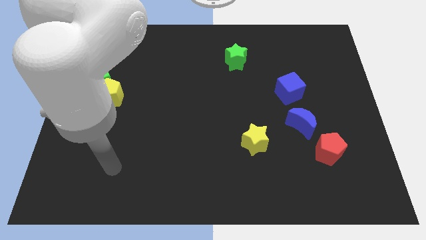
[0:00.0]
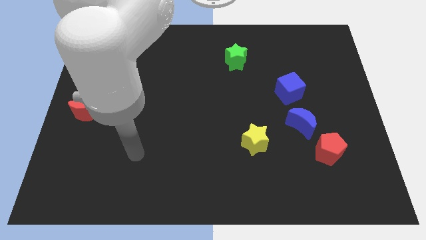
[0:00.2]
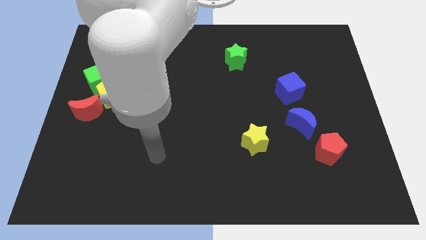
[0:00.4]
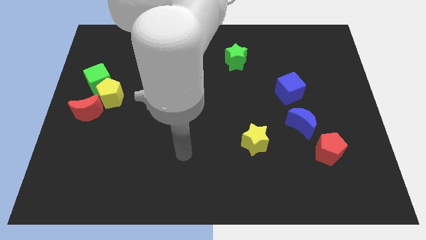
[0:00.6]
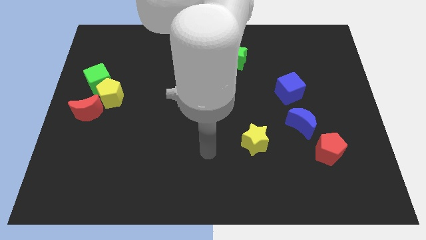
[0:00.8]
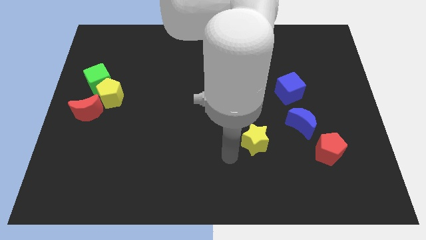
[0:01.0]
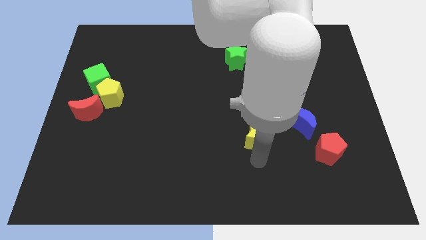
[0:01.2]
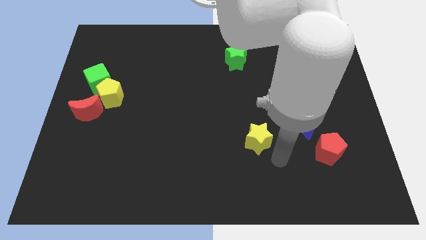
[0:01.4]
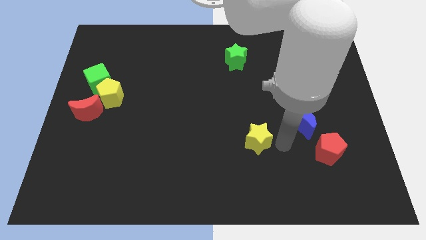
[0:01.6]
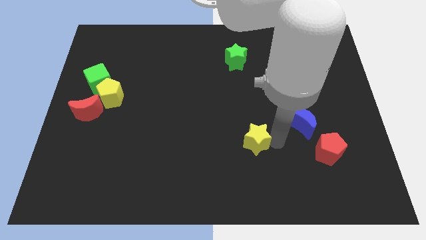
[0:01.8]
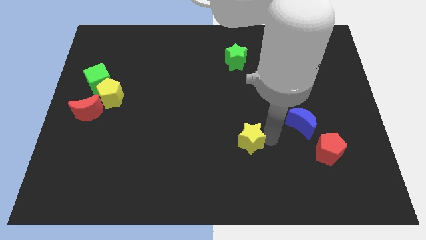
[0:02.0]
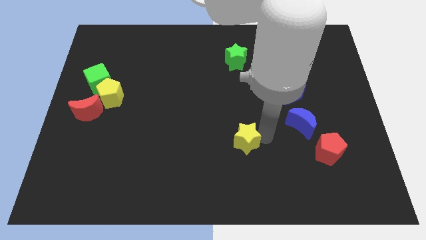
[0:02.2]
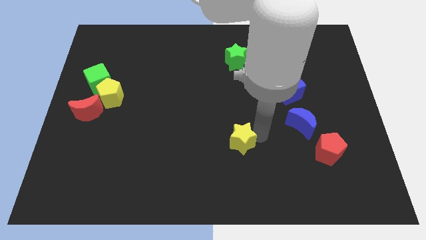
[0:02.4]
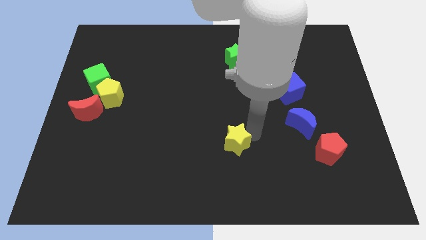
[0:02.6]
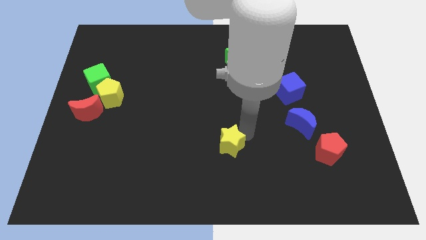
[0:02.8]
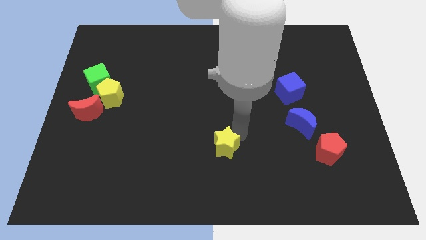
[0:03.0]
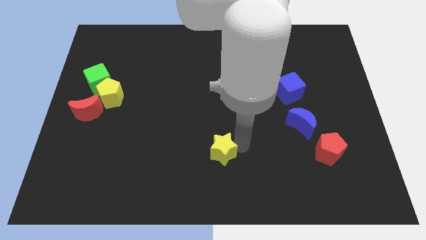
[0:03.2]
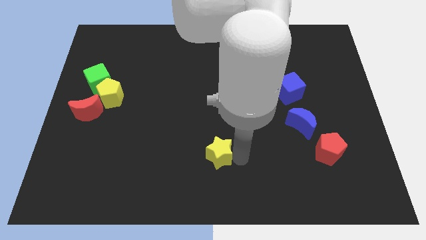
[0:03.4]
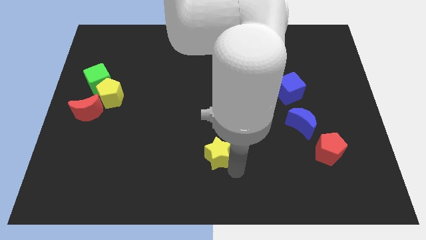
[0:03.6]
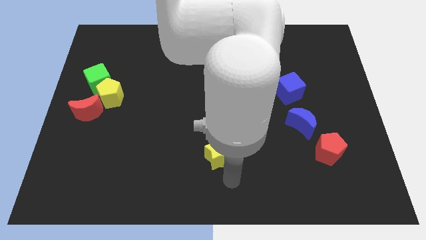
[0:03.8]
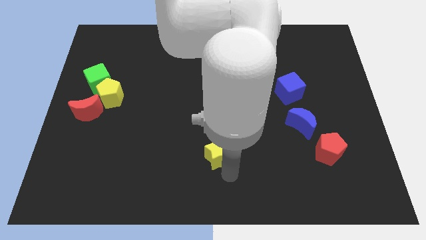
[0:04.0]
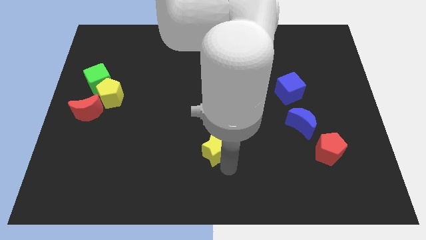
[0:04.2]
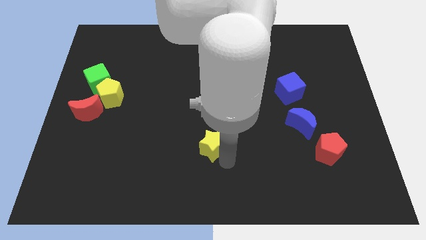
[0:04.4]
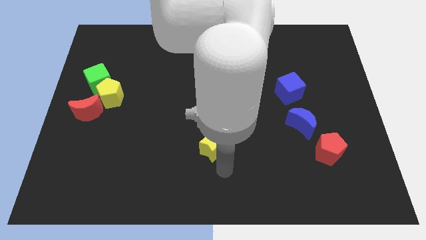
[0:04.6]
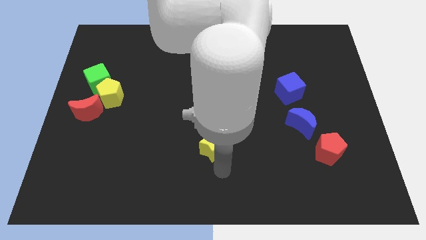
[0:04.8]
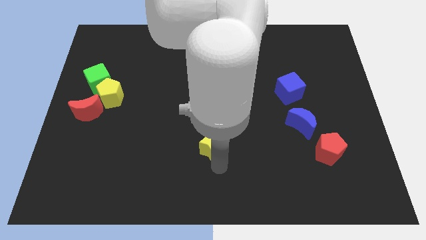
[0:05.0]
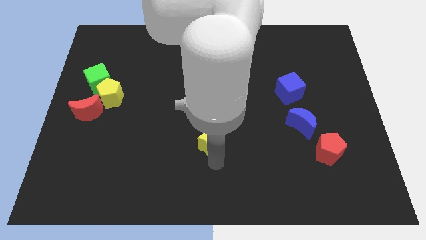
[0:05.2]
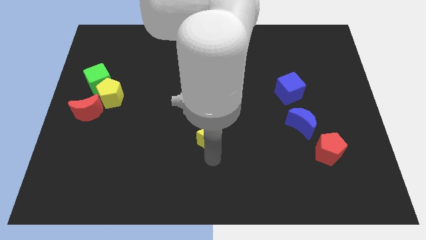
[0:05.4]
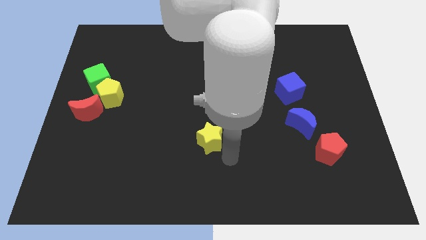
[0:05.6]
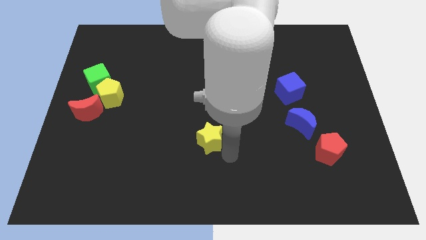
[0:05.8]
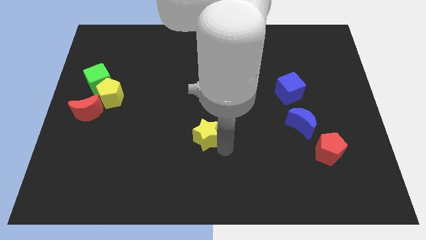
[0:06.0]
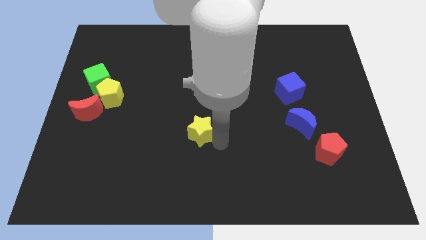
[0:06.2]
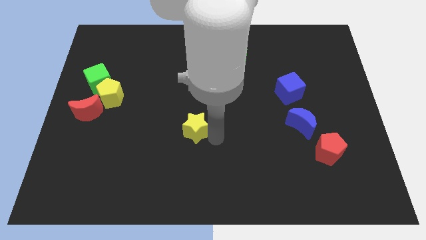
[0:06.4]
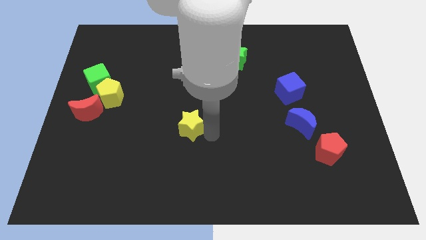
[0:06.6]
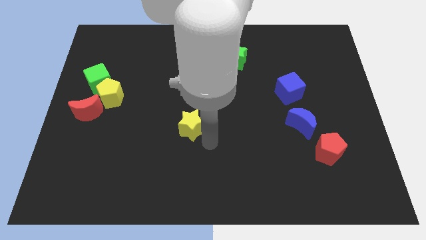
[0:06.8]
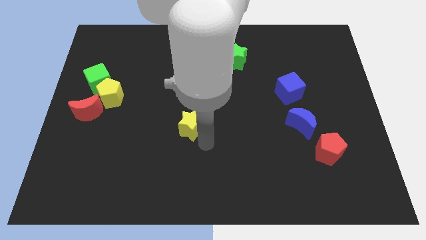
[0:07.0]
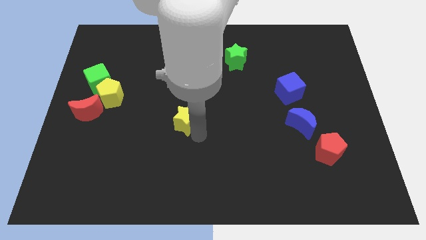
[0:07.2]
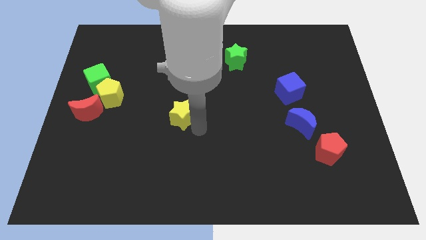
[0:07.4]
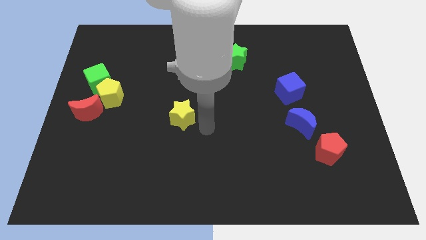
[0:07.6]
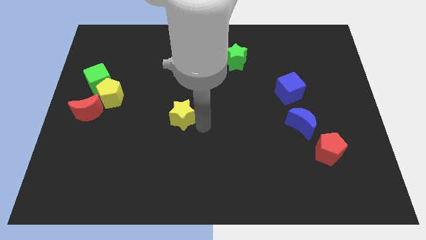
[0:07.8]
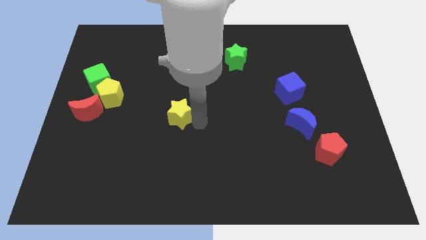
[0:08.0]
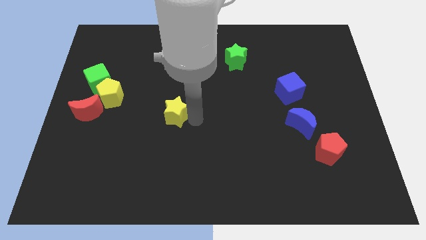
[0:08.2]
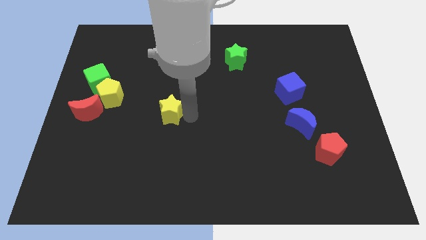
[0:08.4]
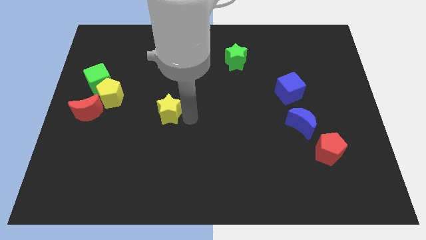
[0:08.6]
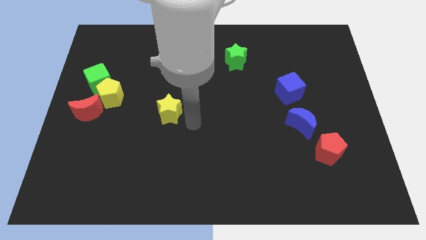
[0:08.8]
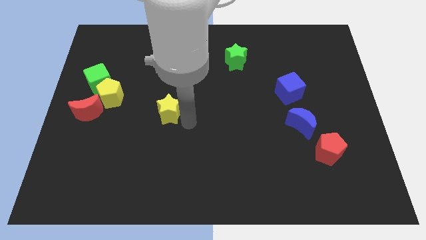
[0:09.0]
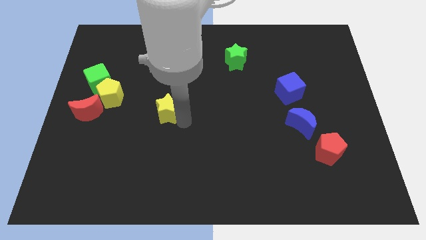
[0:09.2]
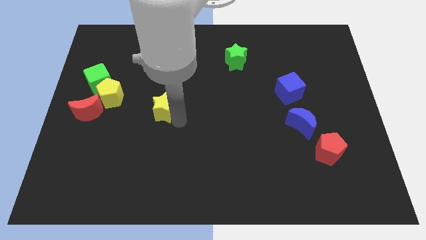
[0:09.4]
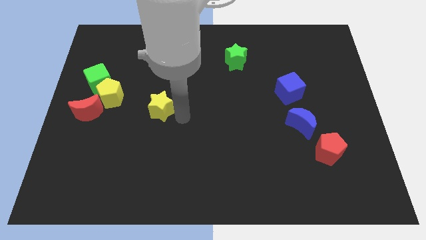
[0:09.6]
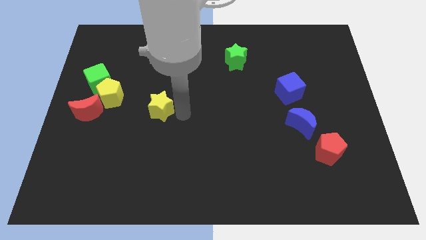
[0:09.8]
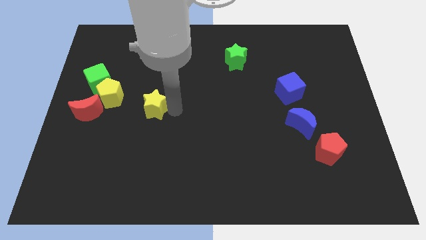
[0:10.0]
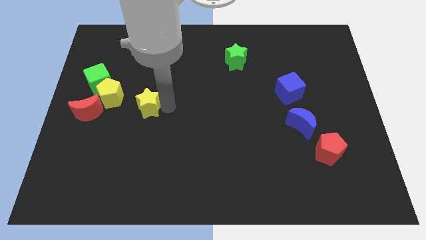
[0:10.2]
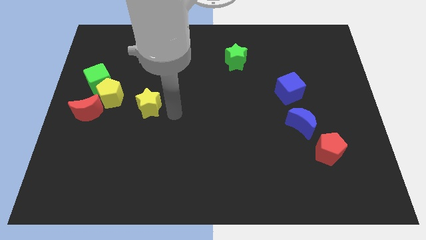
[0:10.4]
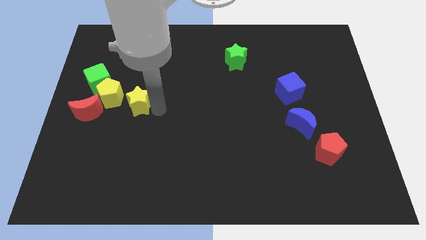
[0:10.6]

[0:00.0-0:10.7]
move the yellow star to the bottom right of the green cube

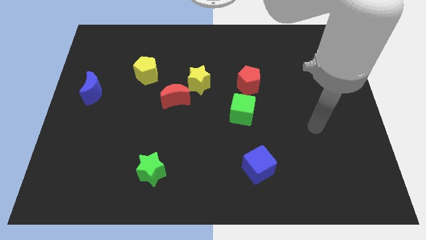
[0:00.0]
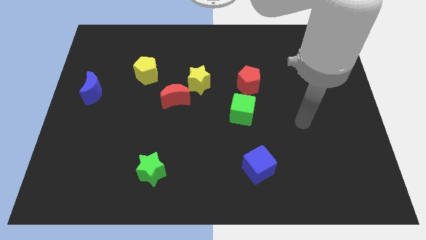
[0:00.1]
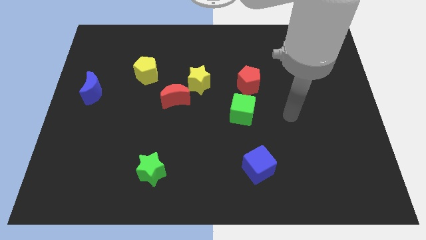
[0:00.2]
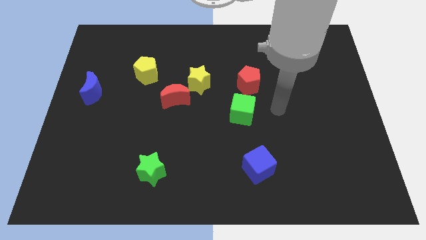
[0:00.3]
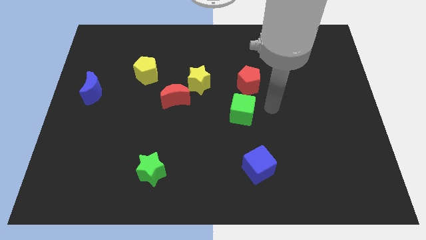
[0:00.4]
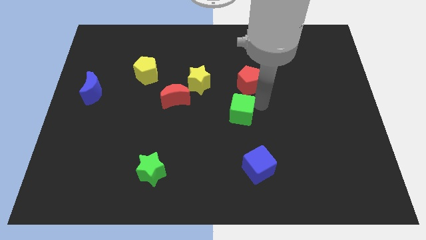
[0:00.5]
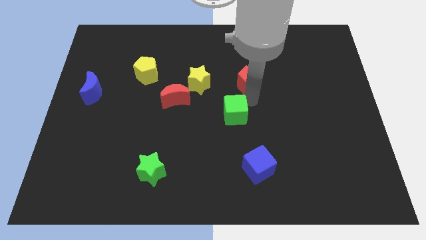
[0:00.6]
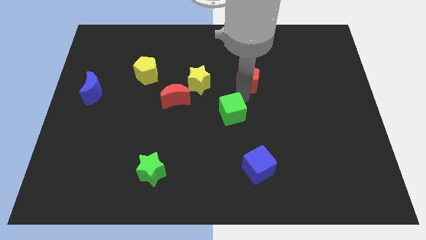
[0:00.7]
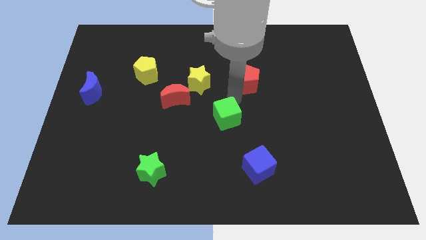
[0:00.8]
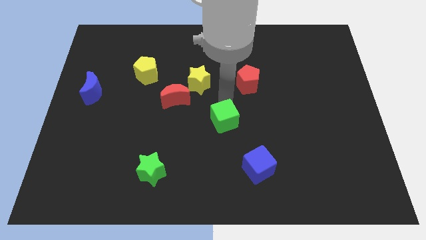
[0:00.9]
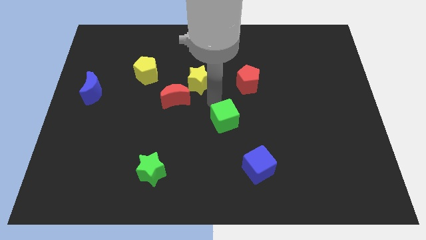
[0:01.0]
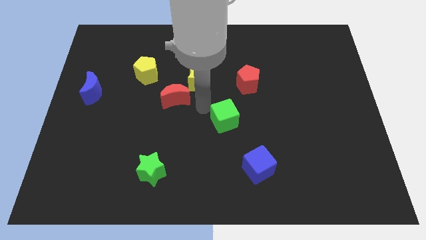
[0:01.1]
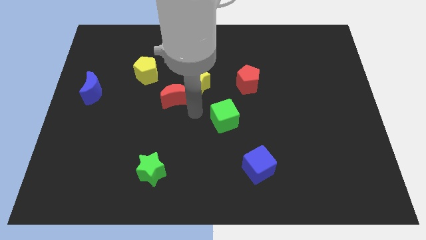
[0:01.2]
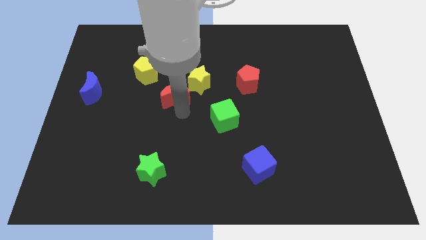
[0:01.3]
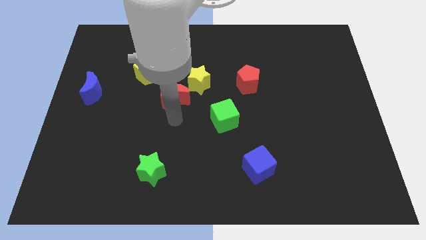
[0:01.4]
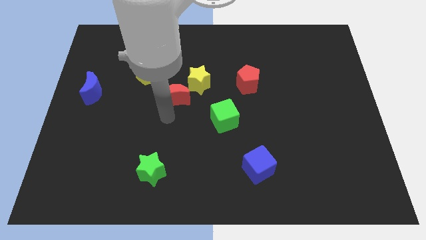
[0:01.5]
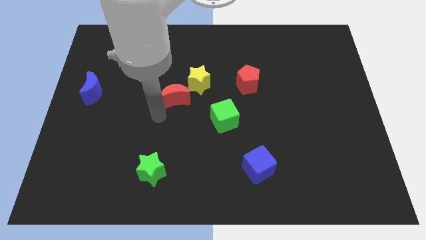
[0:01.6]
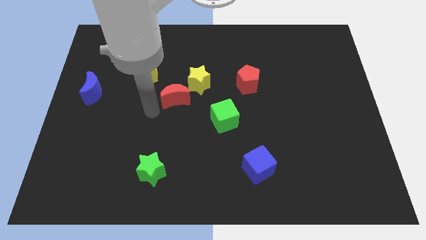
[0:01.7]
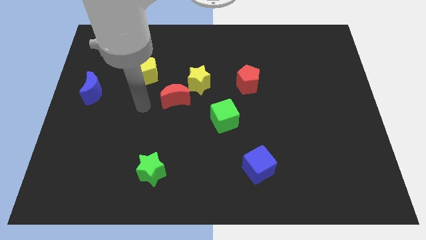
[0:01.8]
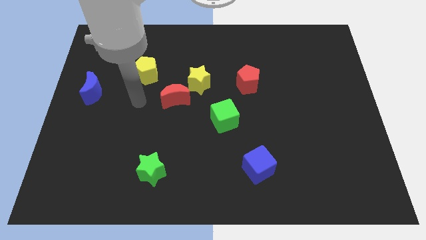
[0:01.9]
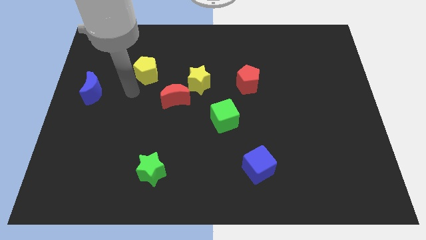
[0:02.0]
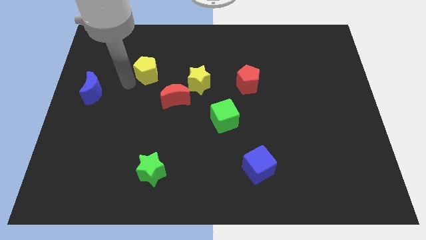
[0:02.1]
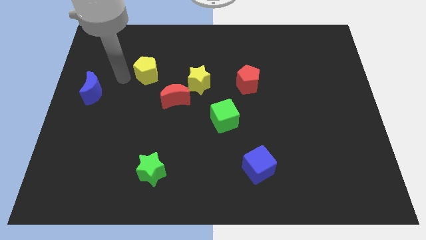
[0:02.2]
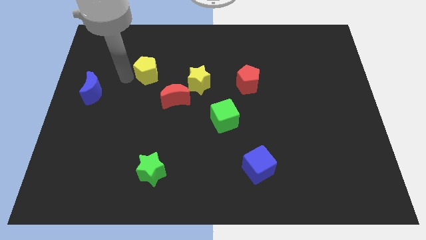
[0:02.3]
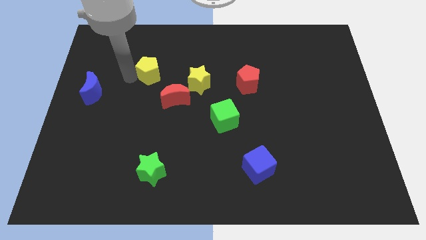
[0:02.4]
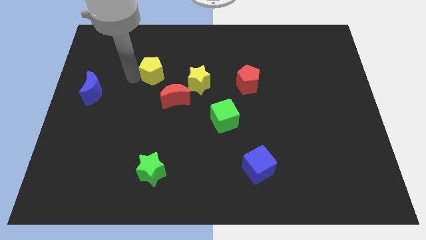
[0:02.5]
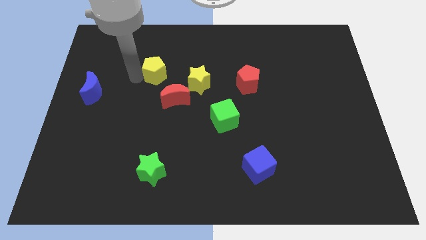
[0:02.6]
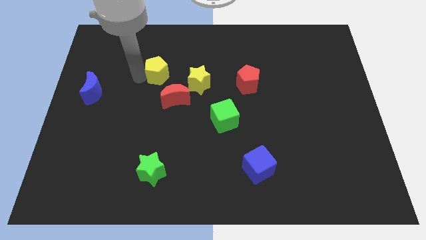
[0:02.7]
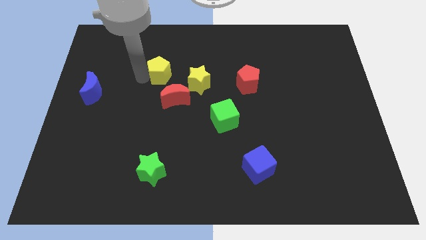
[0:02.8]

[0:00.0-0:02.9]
move the yellow pentagon to the top side of the red moon

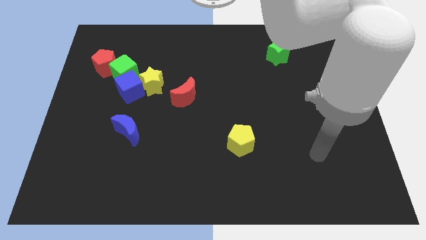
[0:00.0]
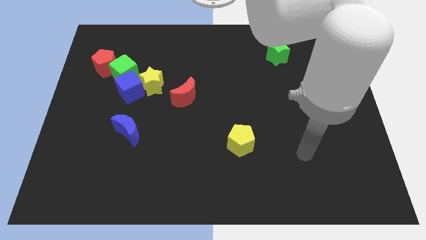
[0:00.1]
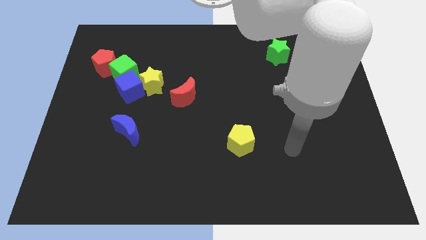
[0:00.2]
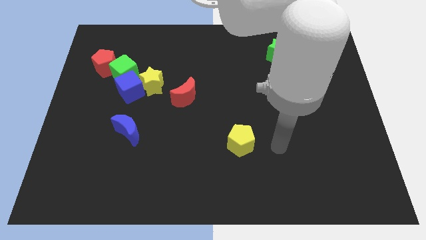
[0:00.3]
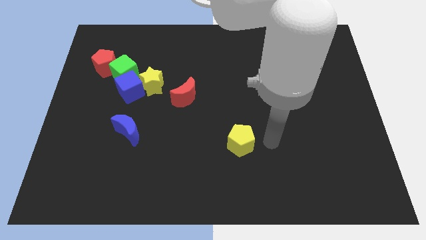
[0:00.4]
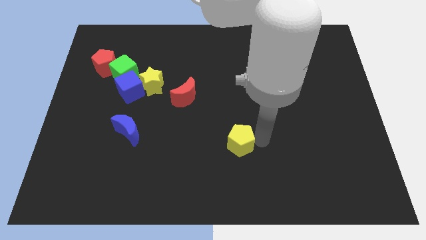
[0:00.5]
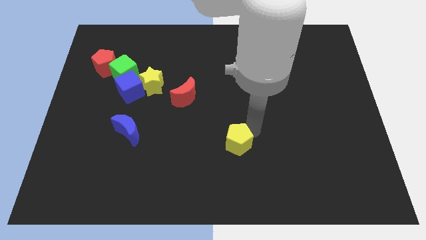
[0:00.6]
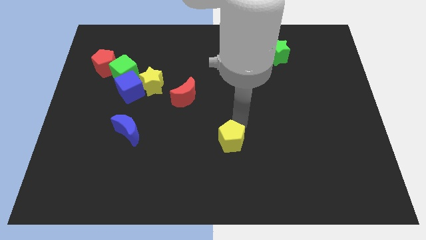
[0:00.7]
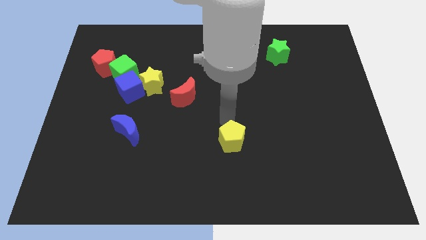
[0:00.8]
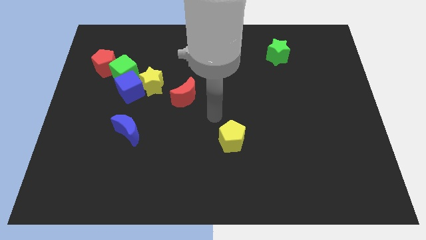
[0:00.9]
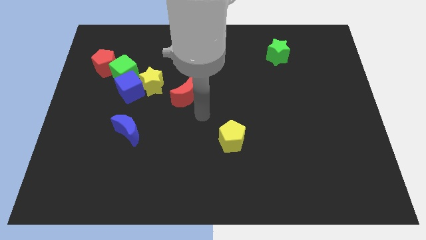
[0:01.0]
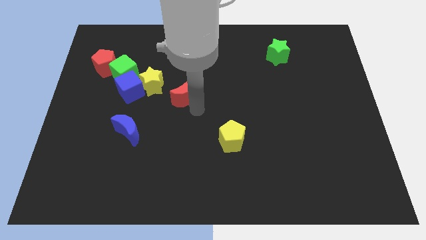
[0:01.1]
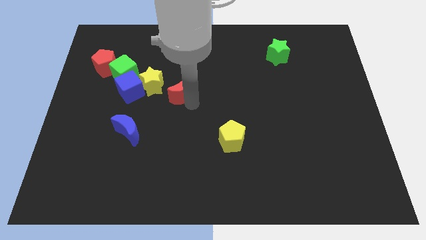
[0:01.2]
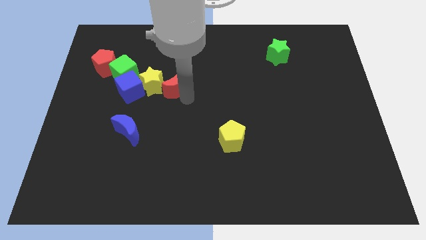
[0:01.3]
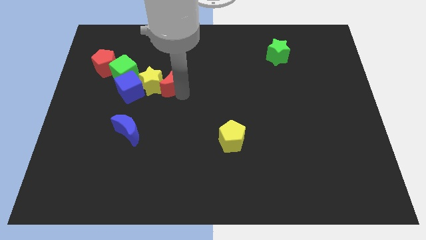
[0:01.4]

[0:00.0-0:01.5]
slide the red moon to the right side of the green cube
